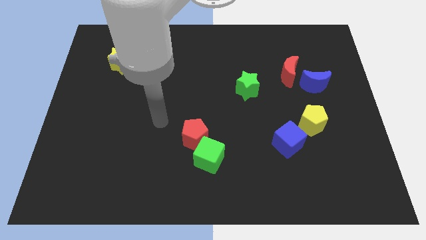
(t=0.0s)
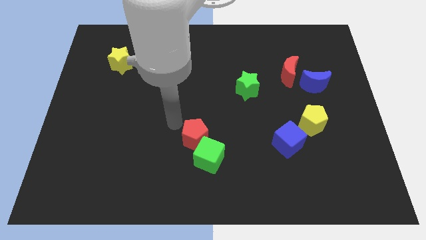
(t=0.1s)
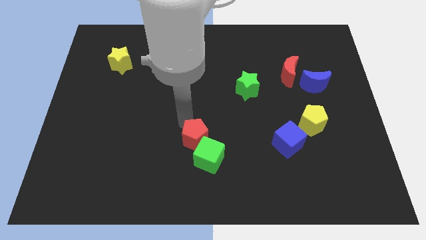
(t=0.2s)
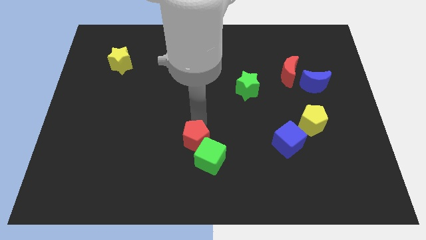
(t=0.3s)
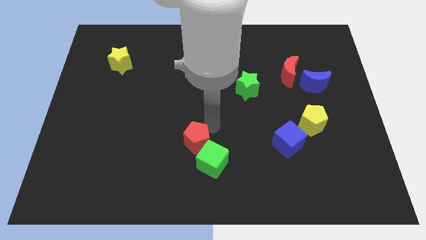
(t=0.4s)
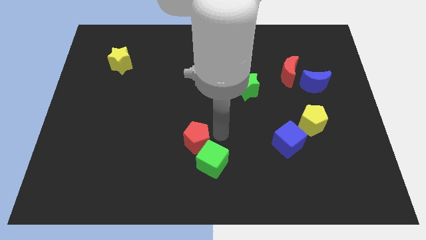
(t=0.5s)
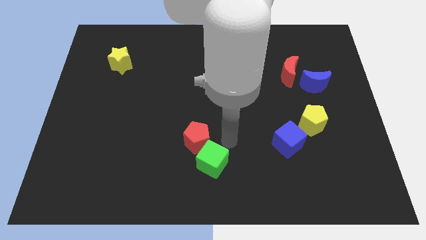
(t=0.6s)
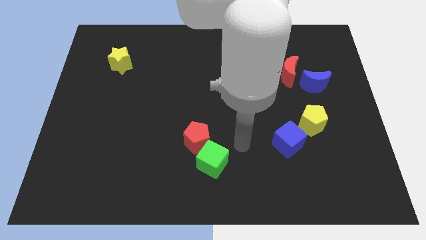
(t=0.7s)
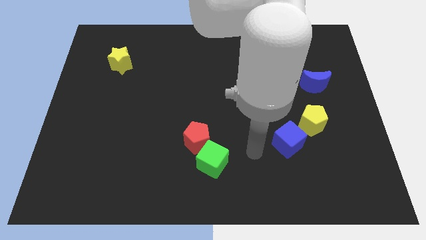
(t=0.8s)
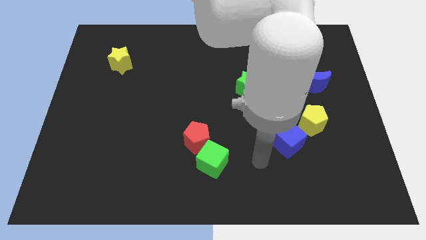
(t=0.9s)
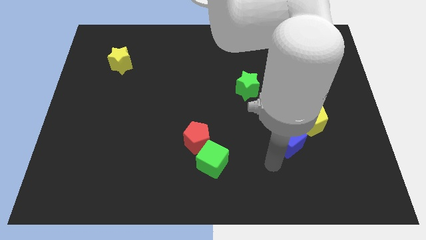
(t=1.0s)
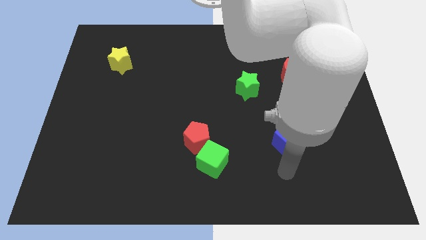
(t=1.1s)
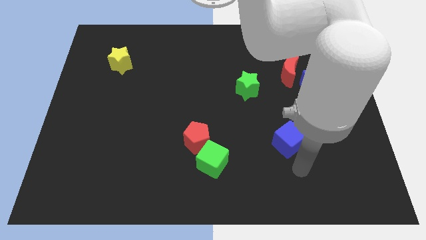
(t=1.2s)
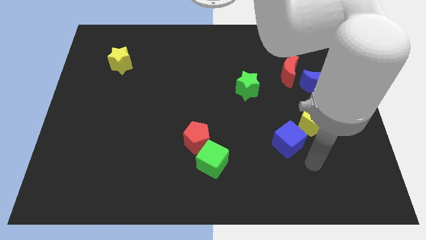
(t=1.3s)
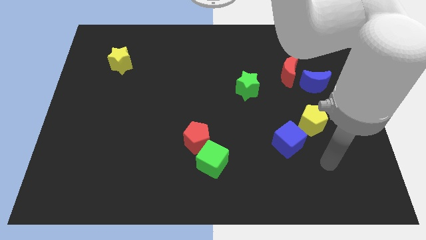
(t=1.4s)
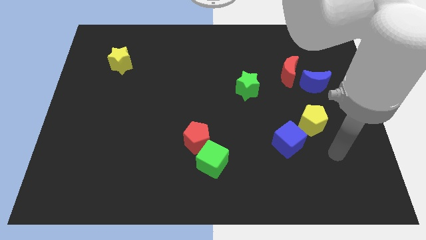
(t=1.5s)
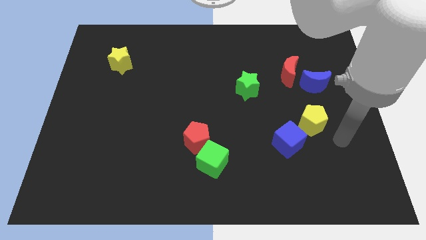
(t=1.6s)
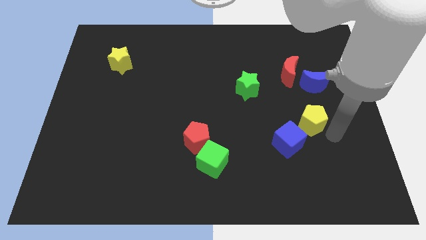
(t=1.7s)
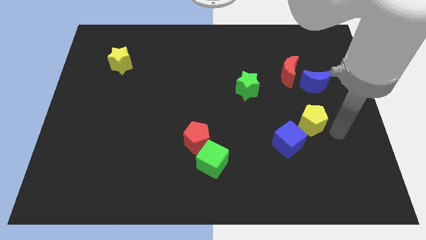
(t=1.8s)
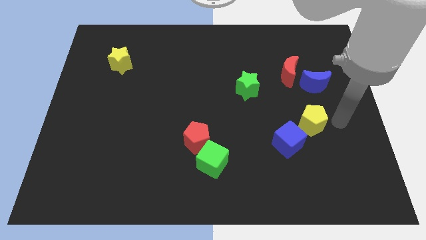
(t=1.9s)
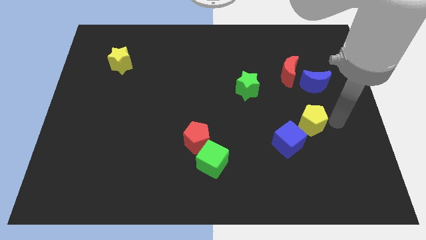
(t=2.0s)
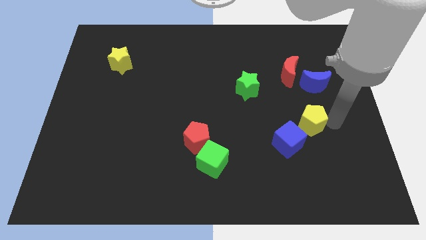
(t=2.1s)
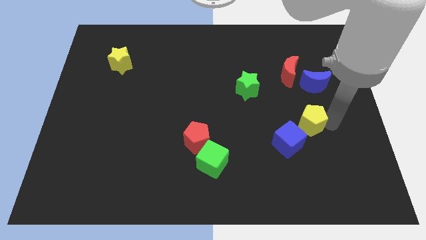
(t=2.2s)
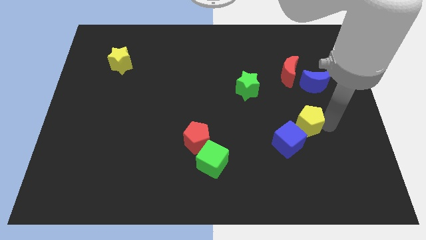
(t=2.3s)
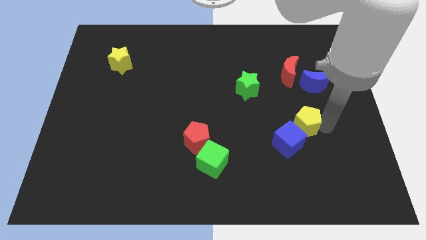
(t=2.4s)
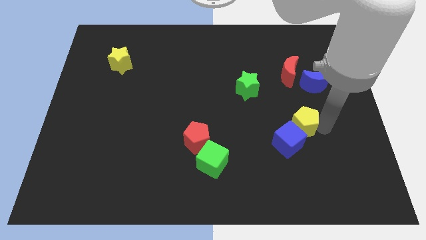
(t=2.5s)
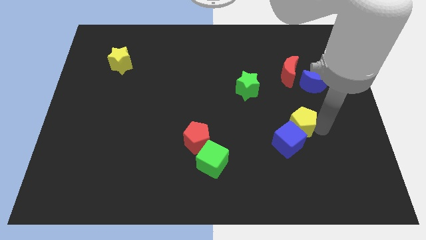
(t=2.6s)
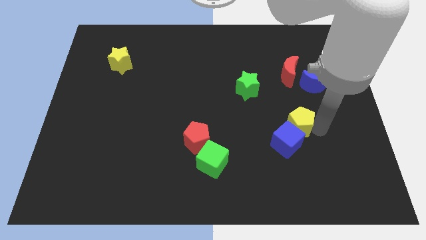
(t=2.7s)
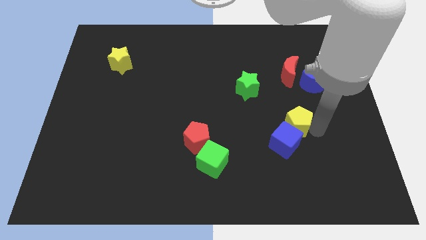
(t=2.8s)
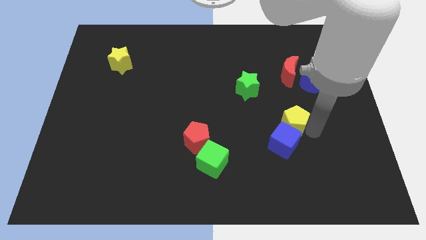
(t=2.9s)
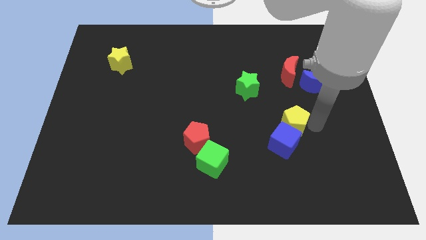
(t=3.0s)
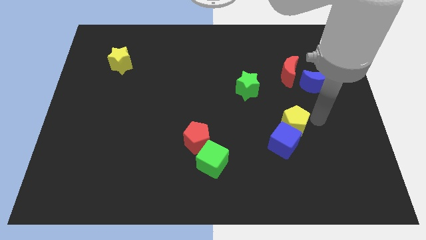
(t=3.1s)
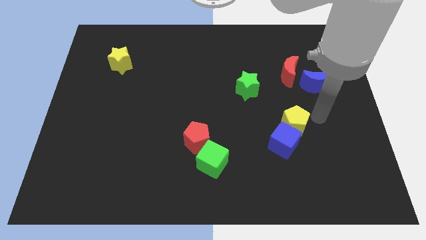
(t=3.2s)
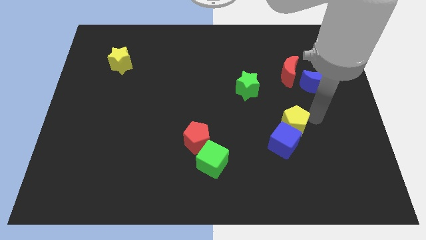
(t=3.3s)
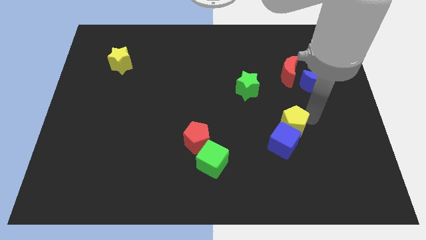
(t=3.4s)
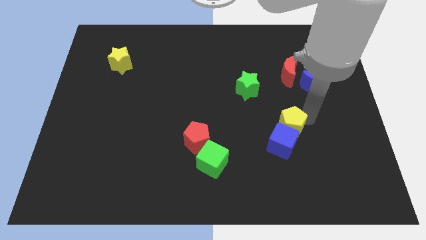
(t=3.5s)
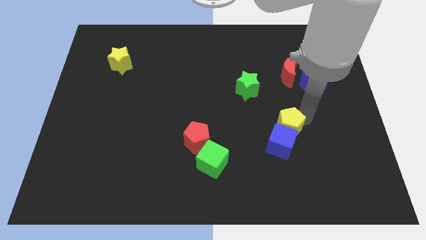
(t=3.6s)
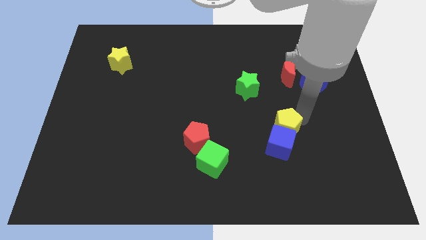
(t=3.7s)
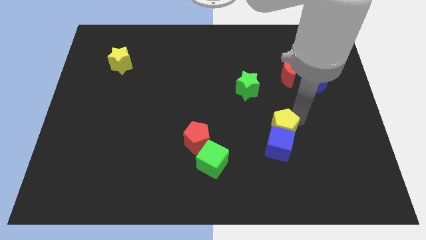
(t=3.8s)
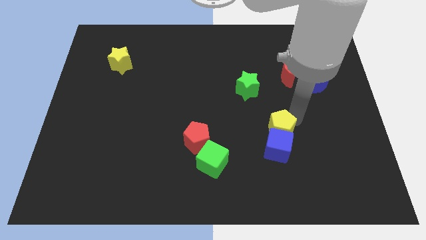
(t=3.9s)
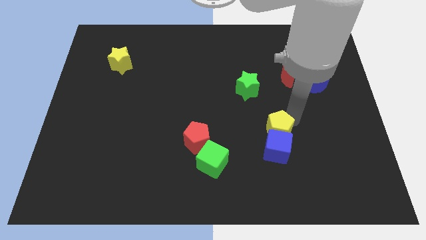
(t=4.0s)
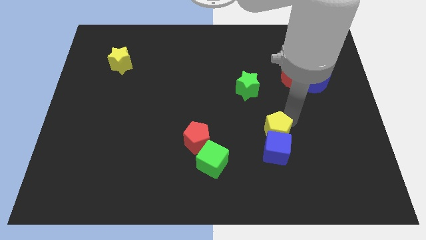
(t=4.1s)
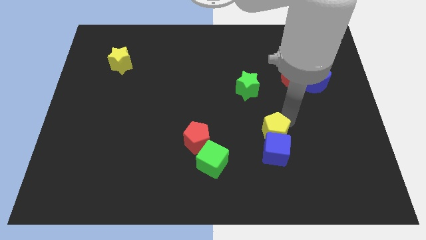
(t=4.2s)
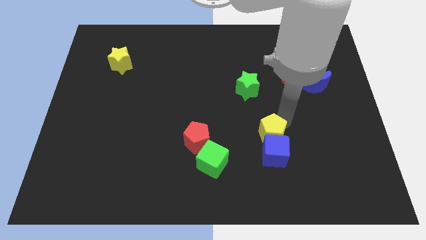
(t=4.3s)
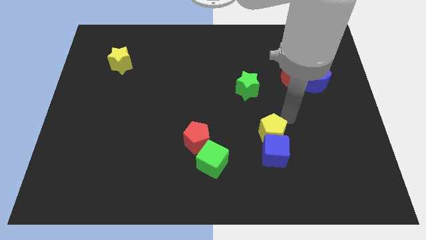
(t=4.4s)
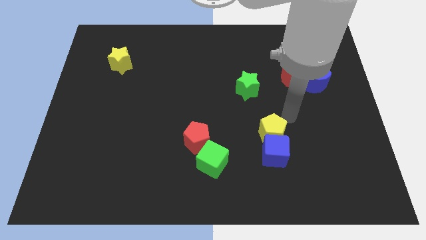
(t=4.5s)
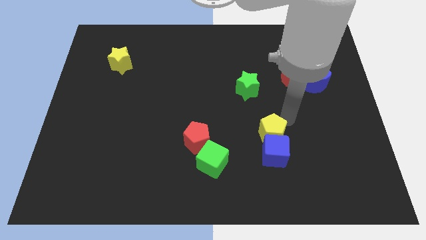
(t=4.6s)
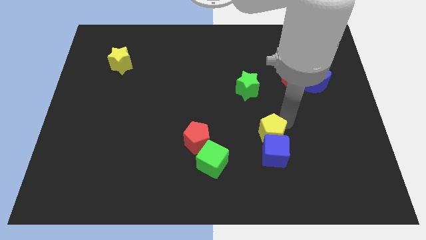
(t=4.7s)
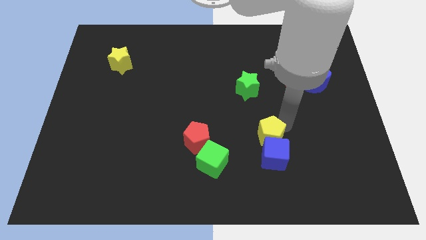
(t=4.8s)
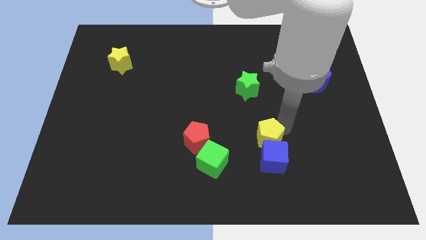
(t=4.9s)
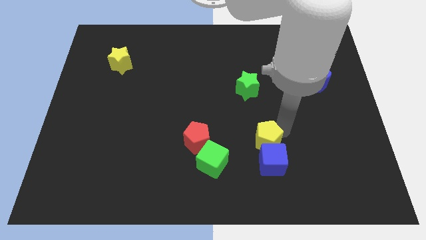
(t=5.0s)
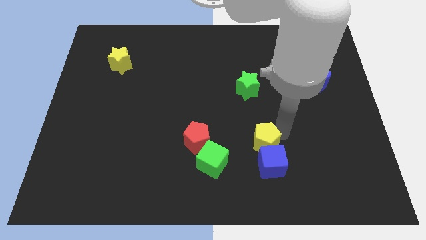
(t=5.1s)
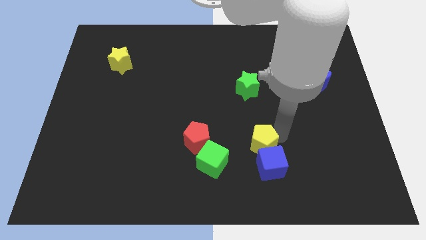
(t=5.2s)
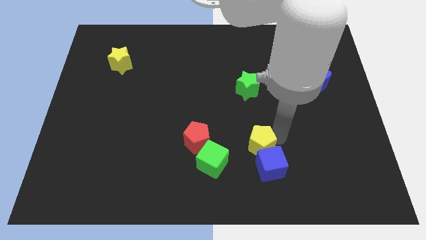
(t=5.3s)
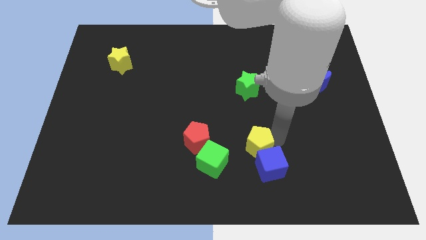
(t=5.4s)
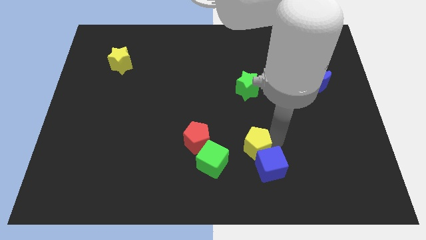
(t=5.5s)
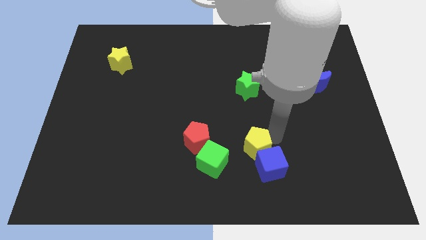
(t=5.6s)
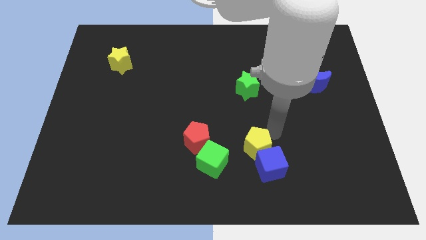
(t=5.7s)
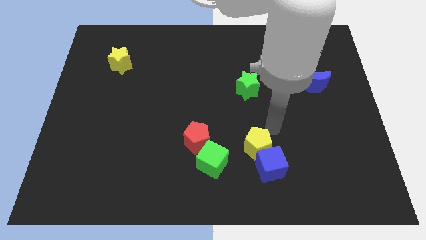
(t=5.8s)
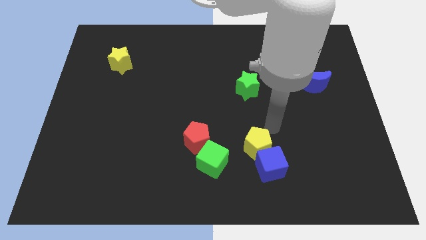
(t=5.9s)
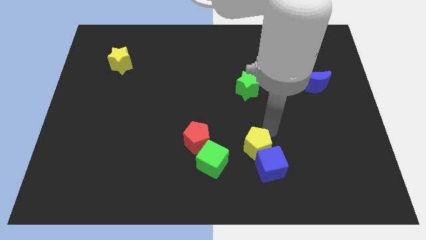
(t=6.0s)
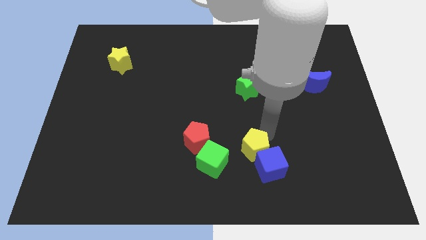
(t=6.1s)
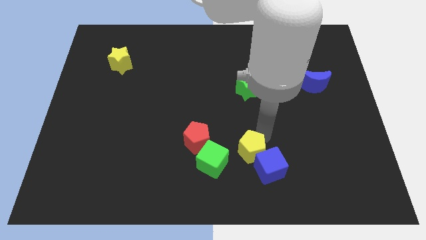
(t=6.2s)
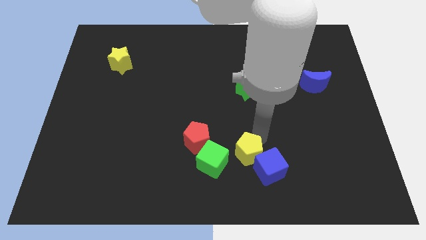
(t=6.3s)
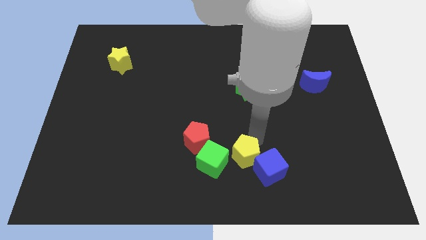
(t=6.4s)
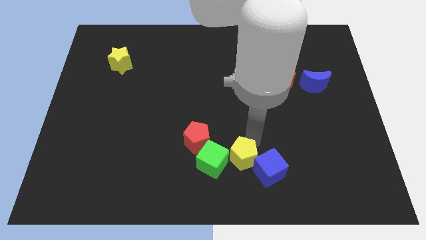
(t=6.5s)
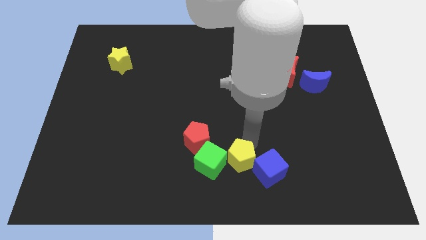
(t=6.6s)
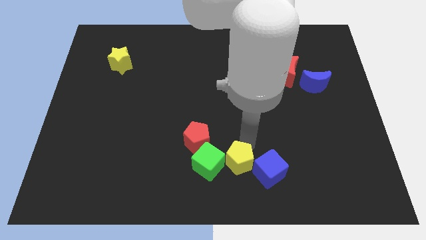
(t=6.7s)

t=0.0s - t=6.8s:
move the yellow pentagon diagonally down and to the right of the green cube

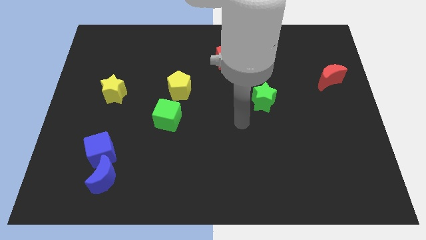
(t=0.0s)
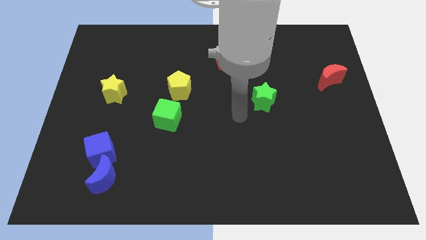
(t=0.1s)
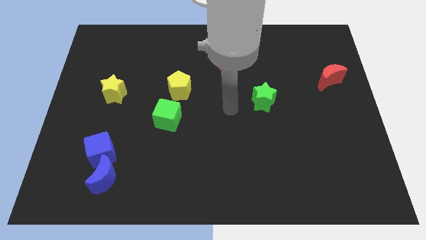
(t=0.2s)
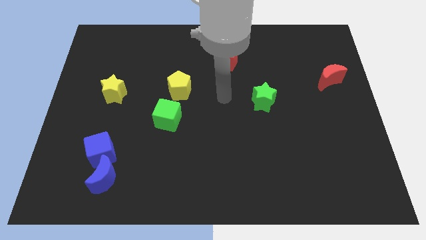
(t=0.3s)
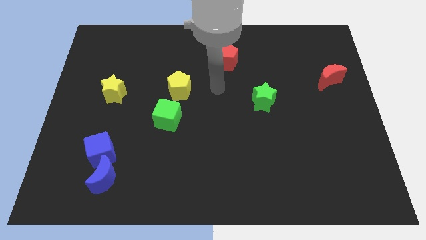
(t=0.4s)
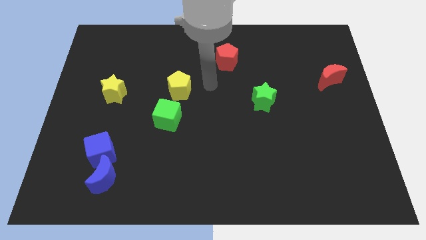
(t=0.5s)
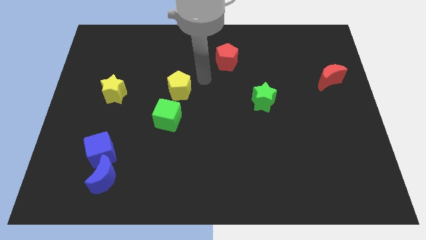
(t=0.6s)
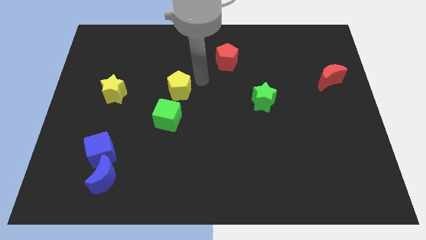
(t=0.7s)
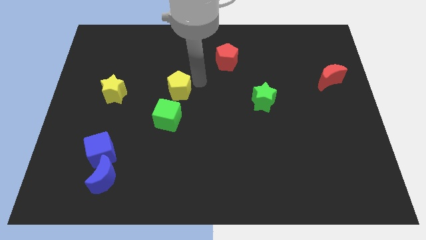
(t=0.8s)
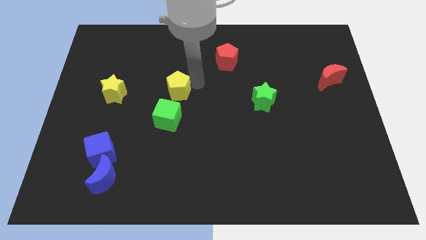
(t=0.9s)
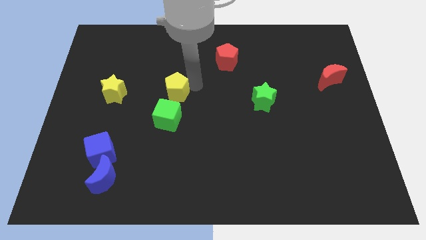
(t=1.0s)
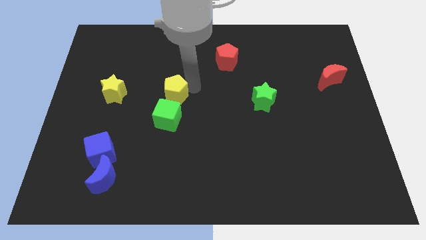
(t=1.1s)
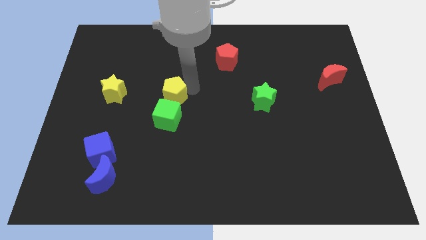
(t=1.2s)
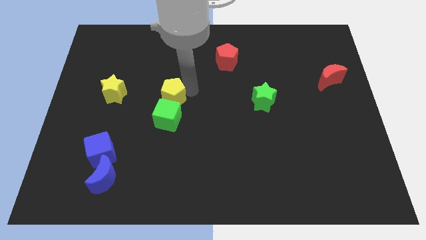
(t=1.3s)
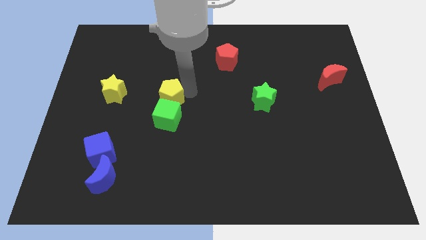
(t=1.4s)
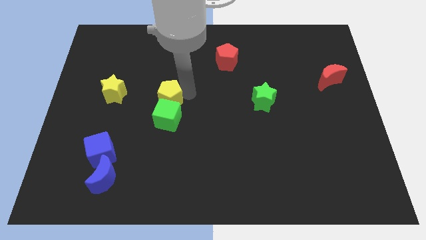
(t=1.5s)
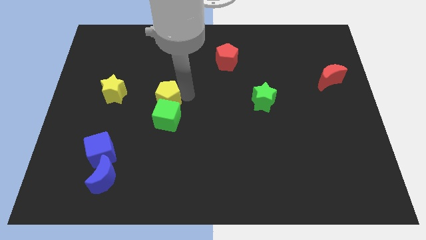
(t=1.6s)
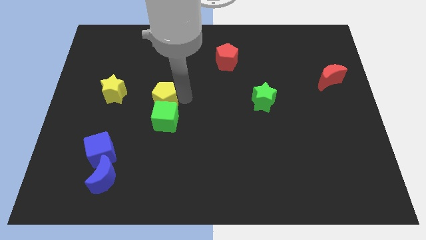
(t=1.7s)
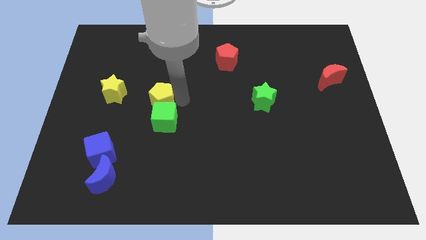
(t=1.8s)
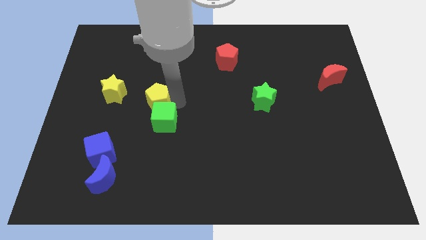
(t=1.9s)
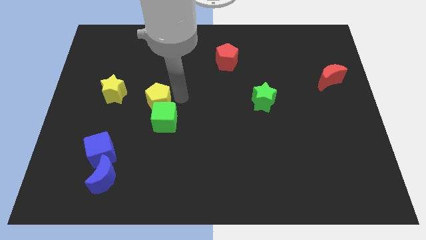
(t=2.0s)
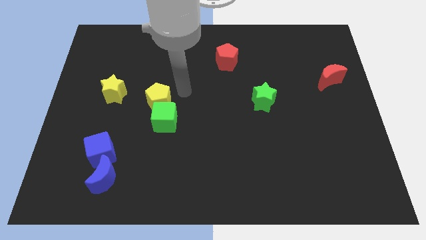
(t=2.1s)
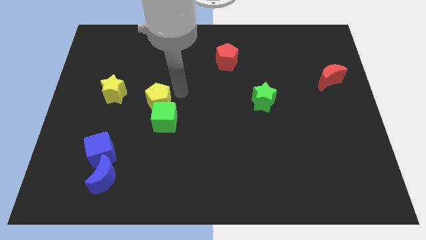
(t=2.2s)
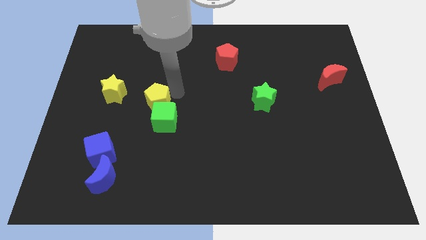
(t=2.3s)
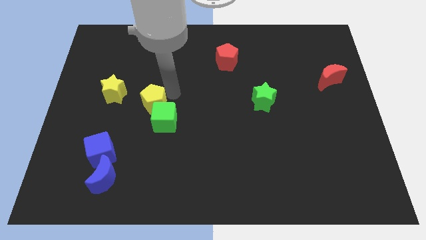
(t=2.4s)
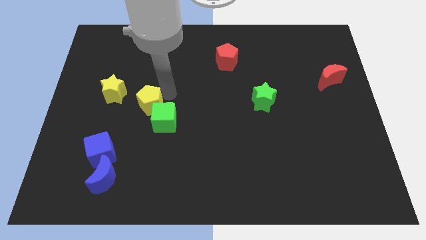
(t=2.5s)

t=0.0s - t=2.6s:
move the yellow pentagon to the left of the green cube
